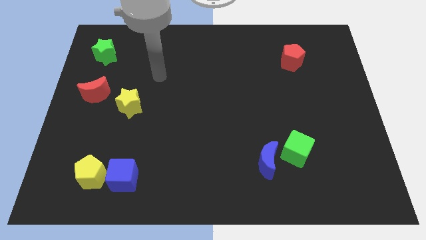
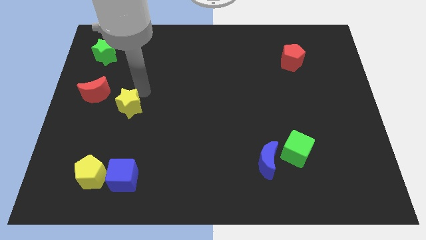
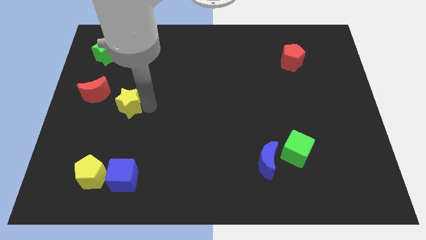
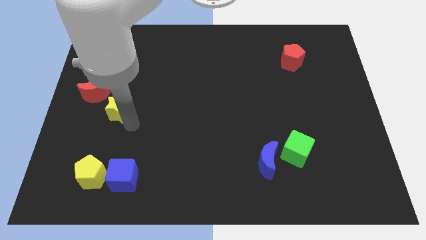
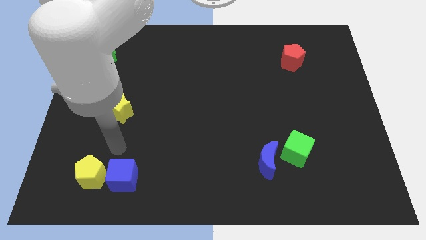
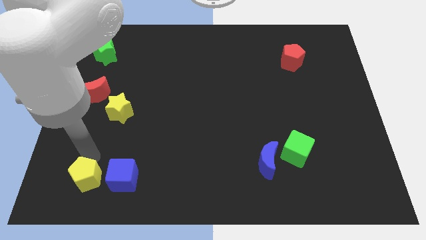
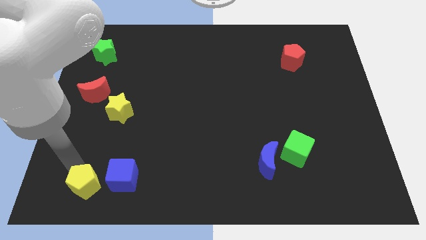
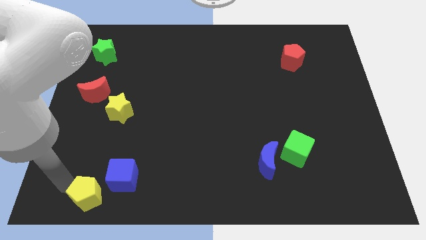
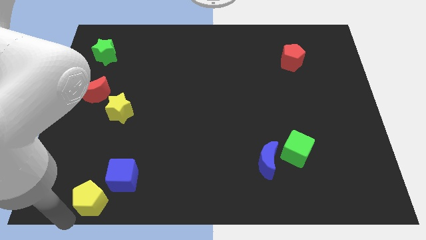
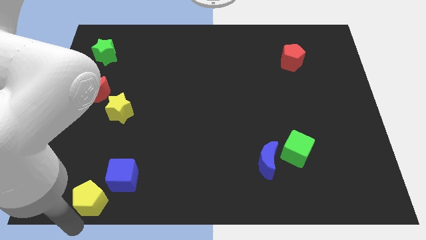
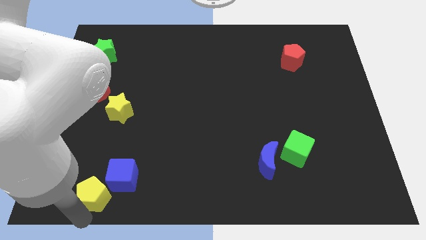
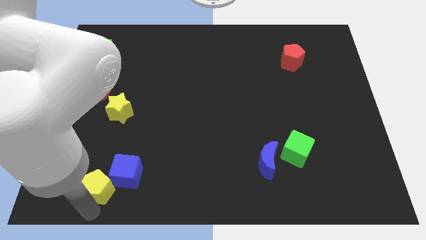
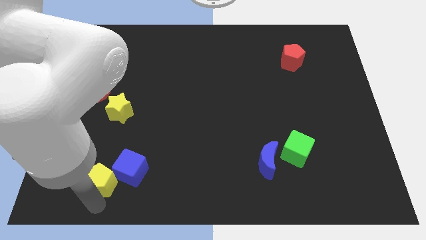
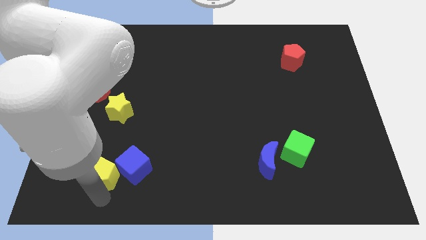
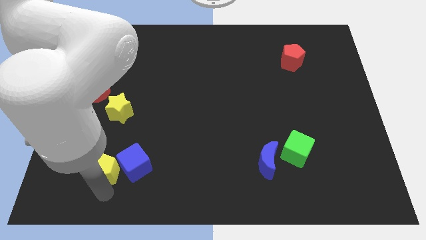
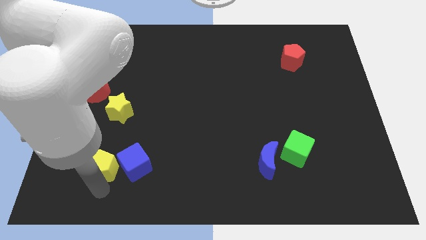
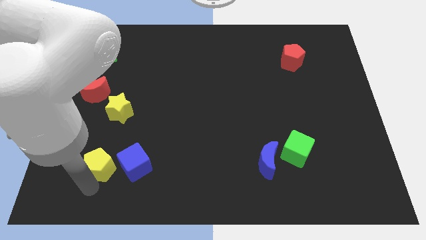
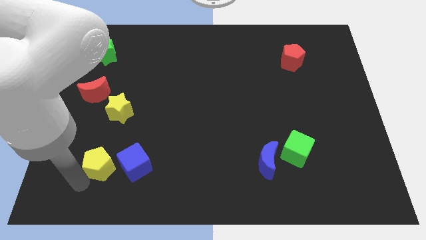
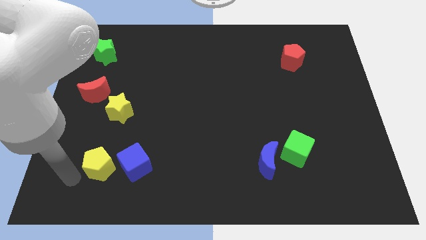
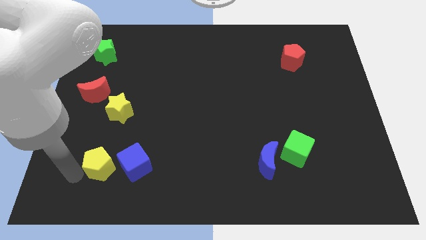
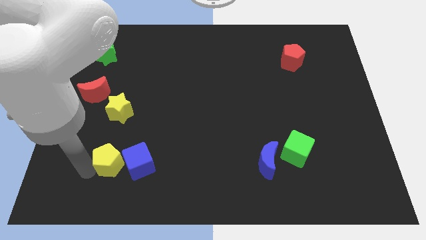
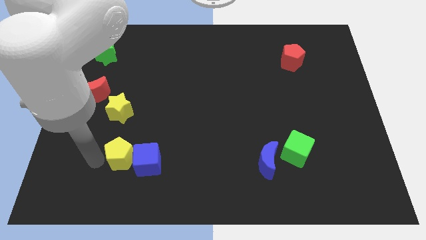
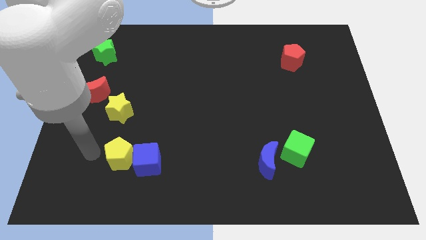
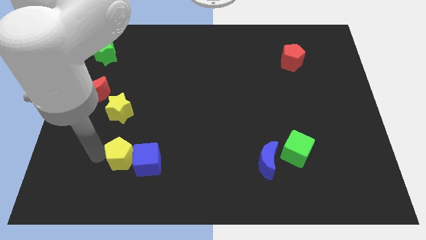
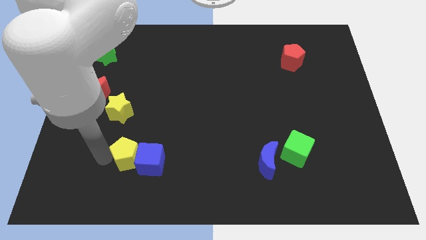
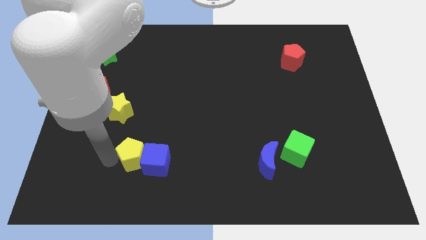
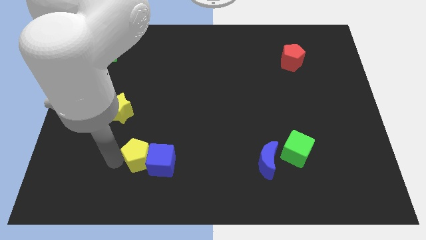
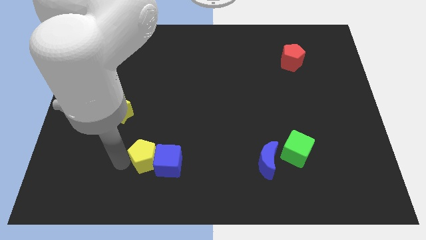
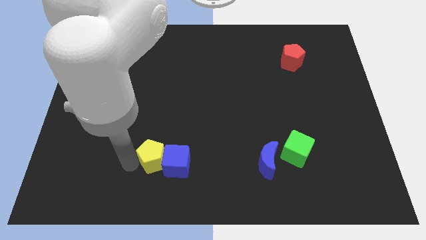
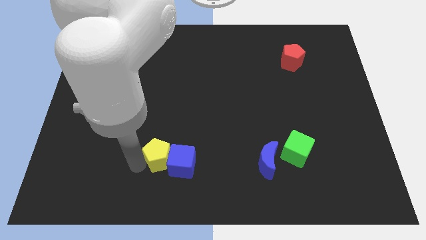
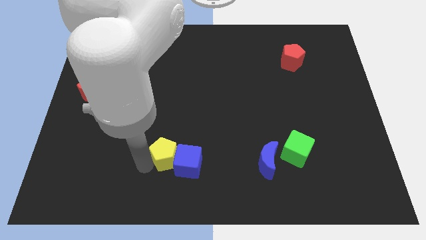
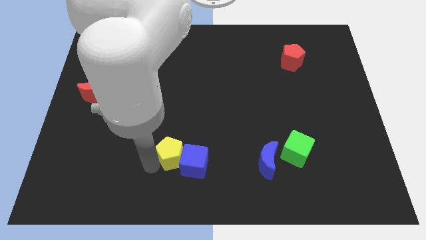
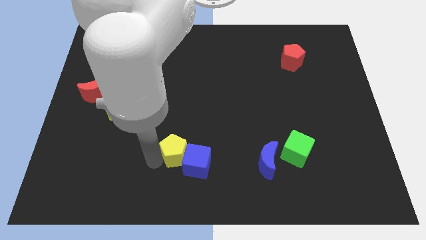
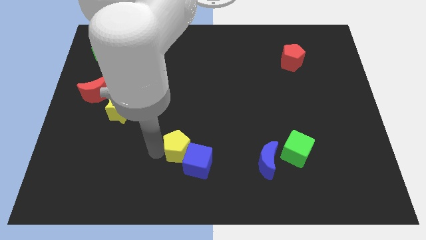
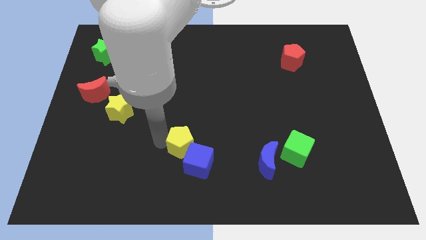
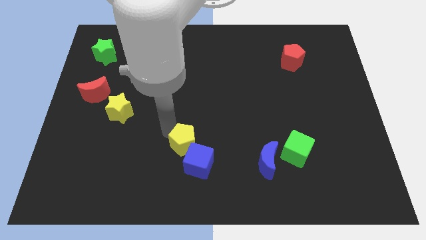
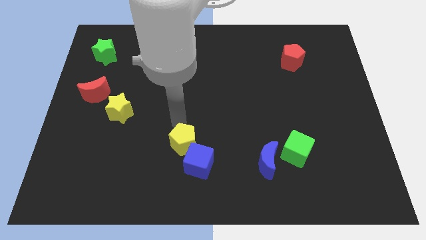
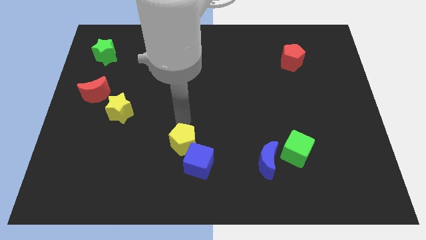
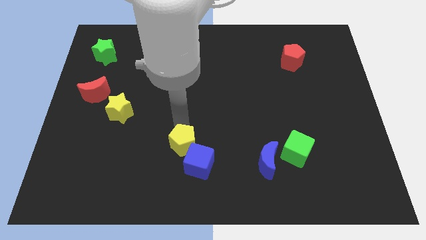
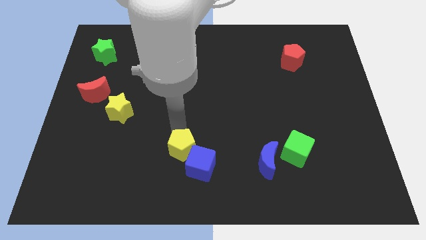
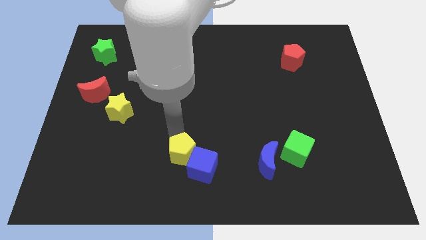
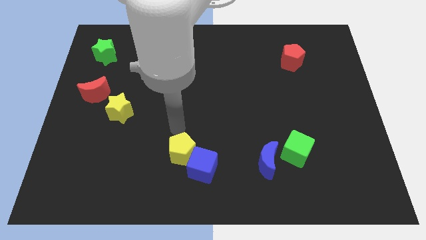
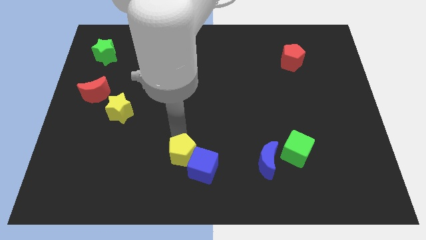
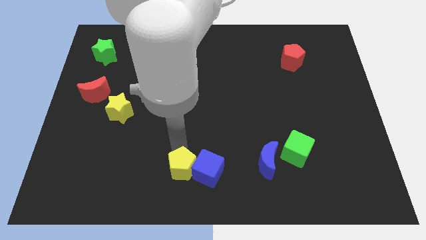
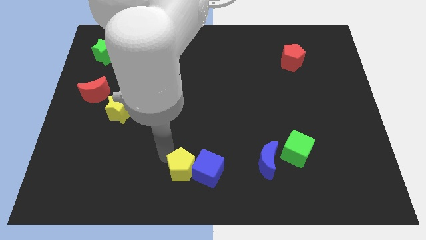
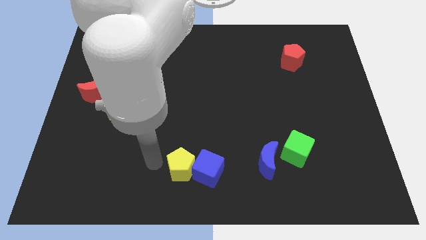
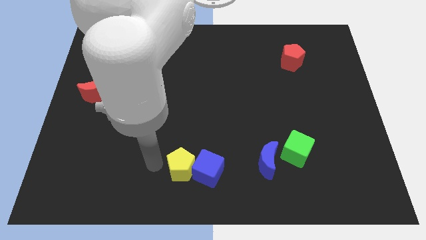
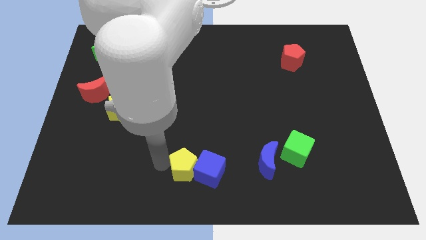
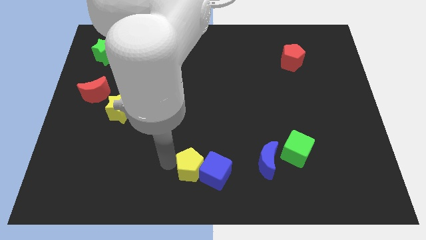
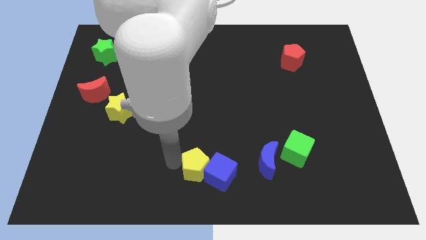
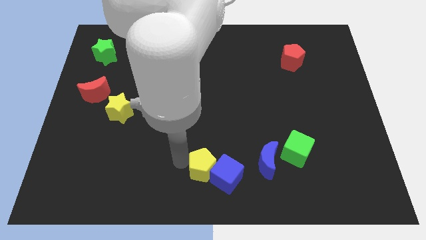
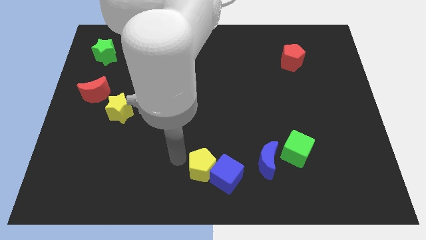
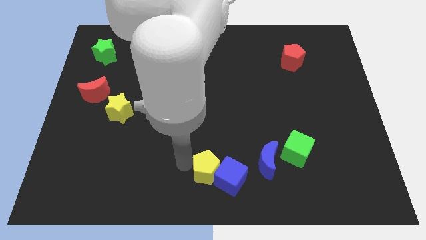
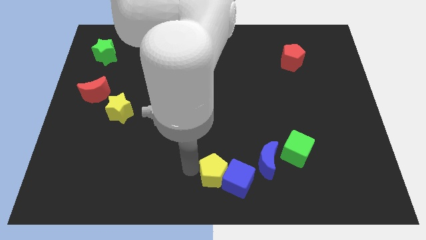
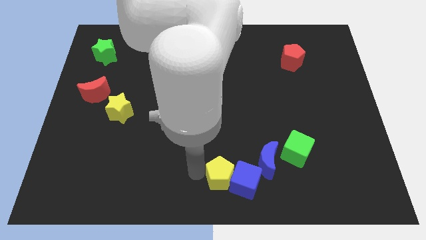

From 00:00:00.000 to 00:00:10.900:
push the yellow pentagon diagonally down and to the left of the blue moon

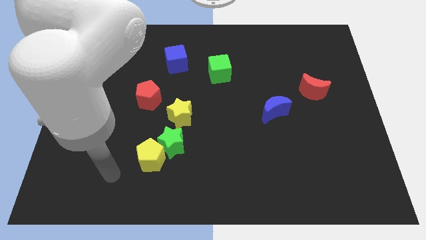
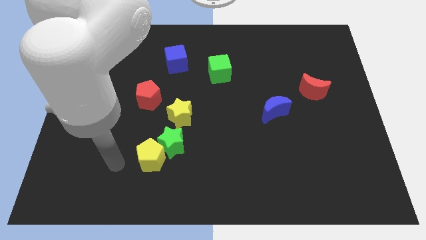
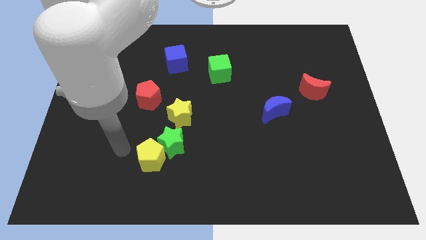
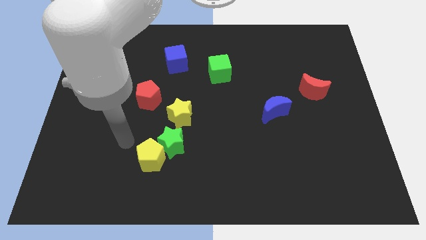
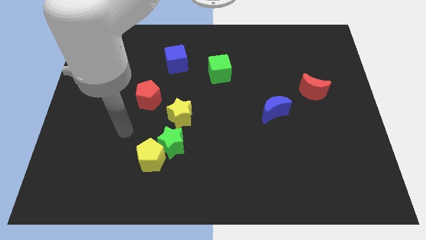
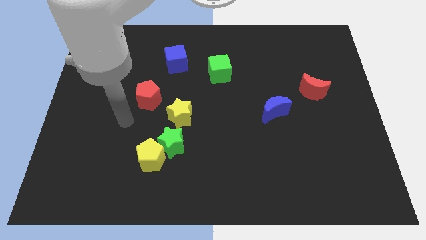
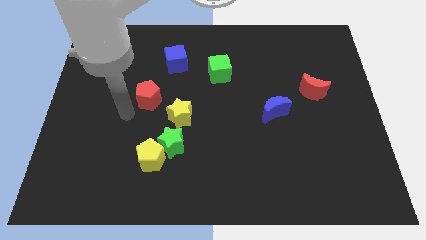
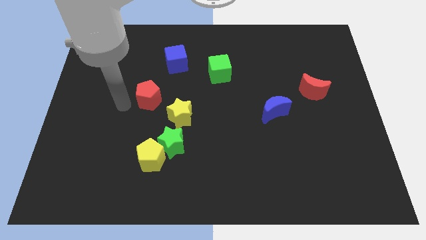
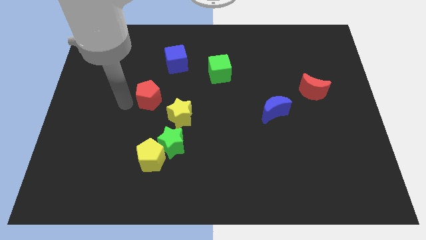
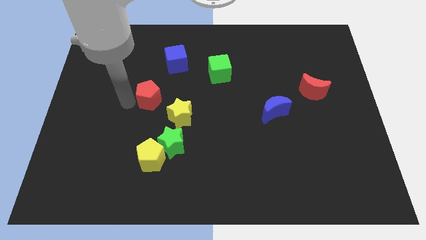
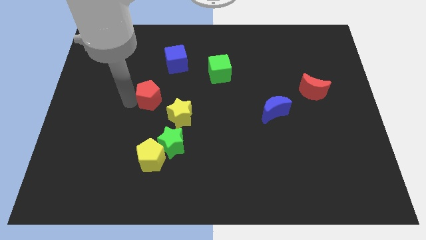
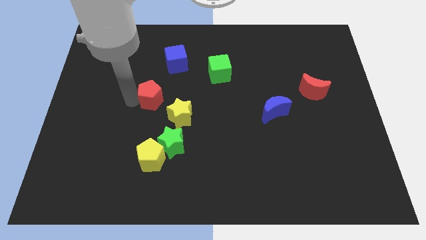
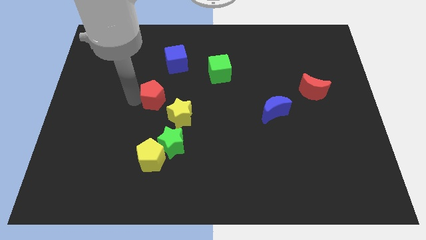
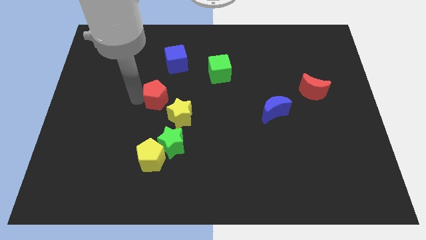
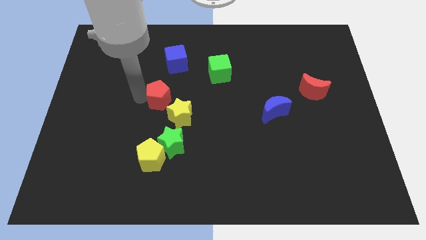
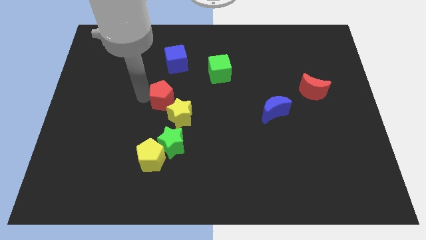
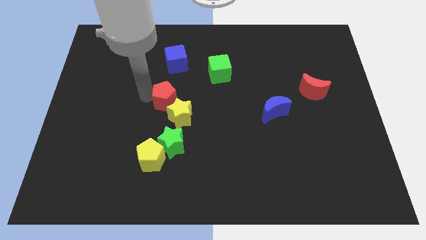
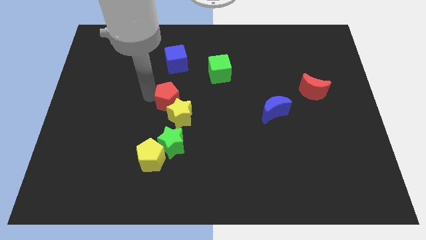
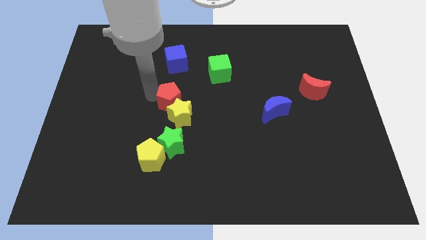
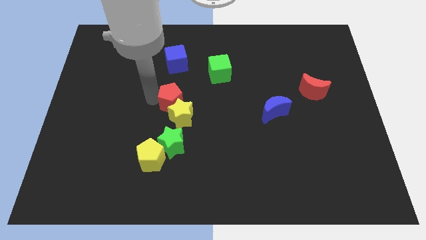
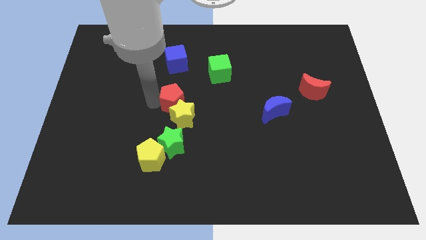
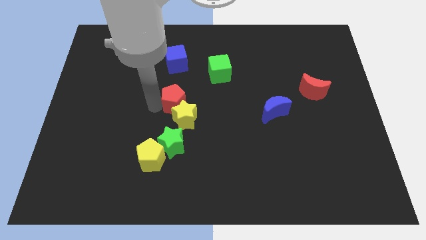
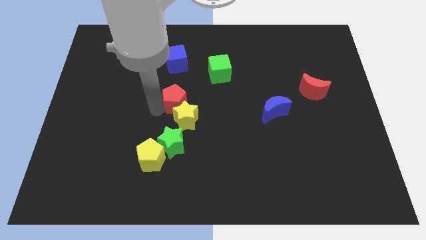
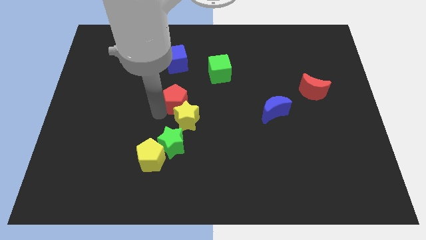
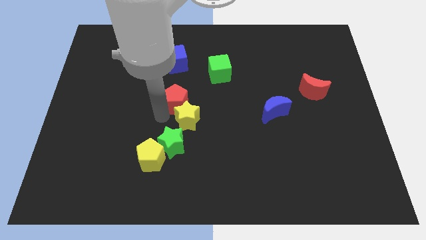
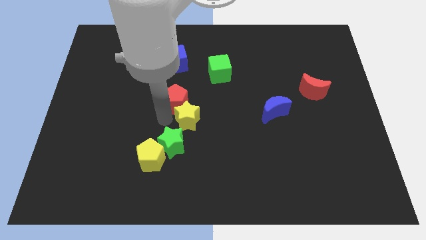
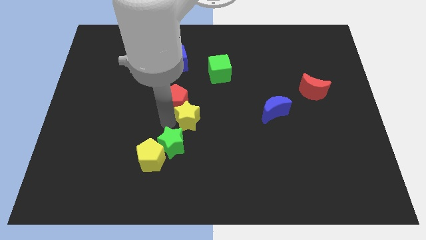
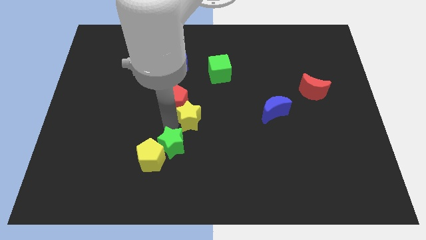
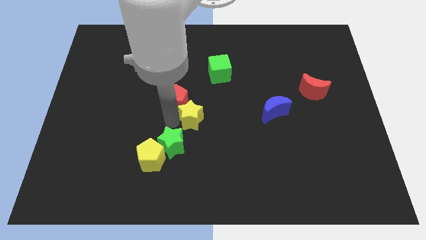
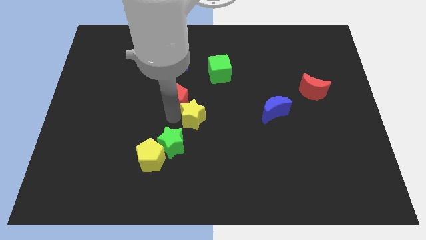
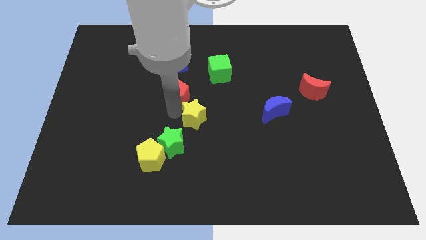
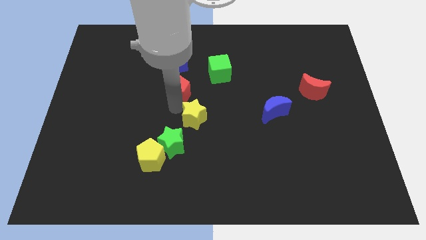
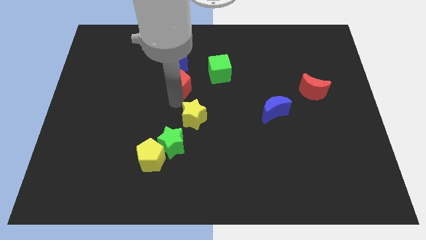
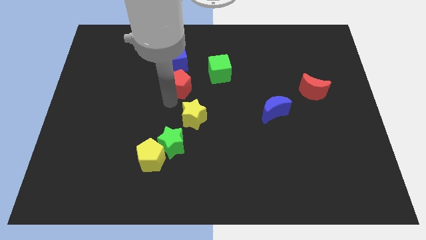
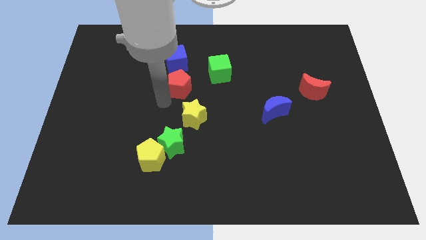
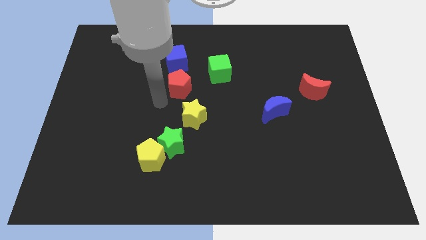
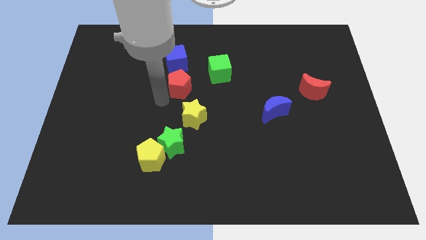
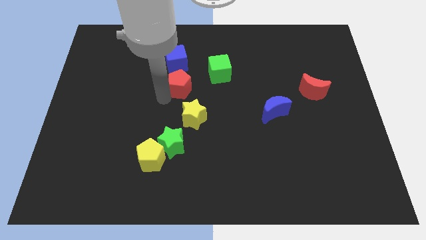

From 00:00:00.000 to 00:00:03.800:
slide the red pentagon diagonally down and to the right of the blue cube
